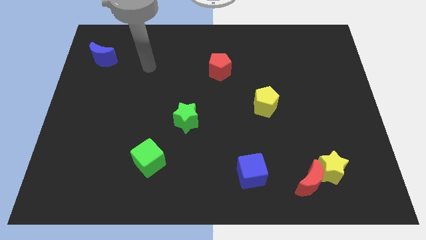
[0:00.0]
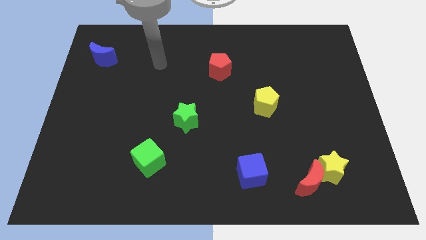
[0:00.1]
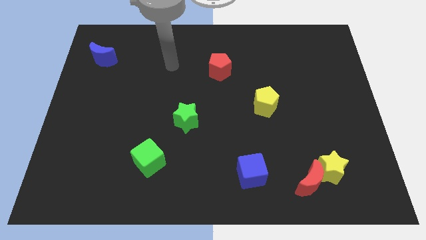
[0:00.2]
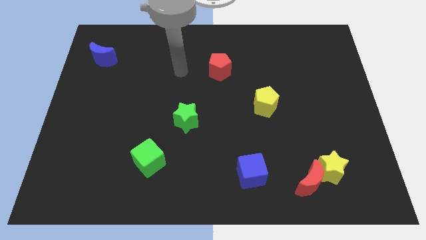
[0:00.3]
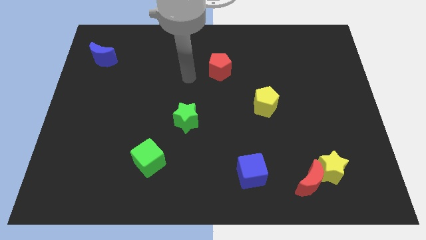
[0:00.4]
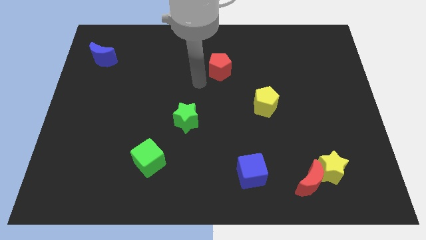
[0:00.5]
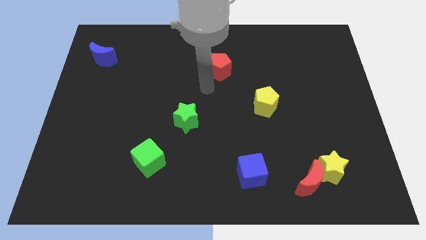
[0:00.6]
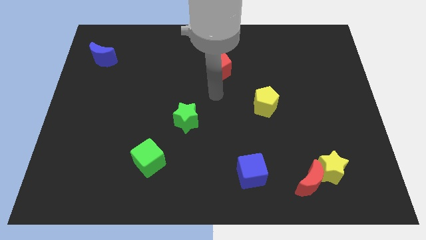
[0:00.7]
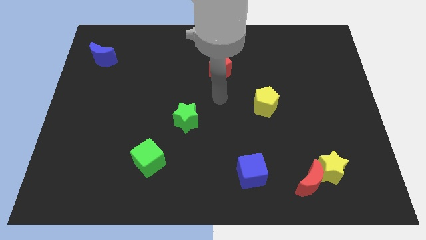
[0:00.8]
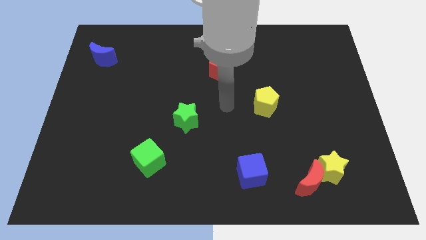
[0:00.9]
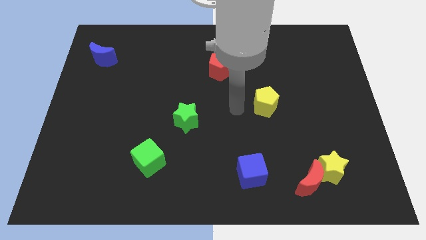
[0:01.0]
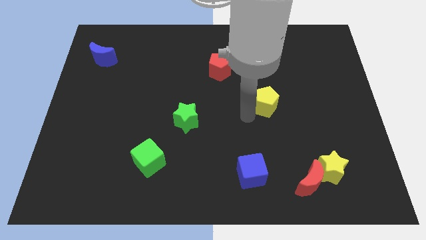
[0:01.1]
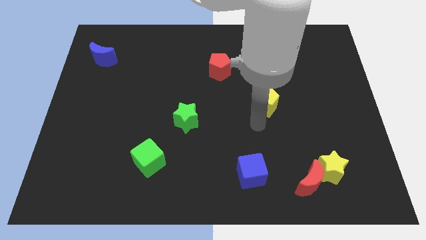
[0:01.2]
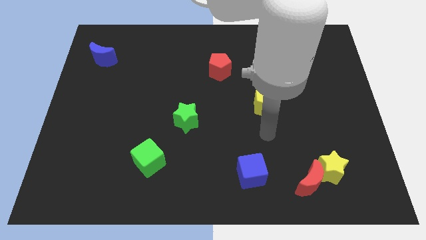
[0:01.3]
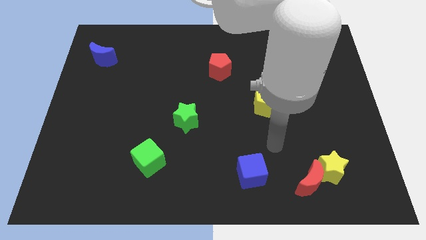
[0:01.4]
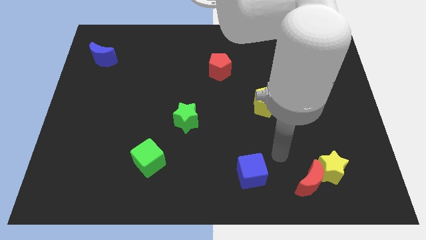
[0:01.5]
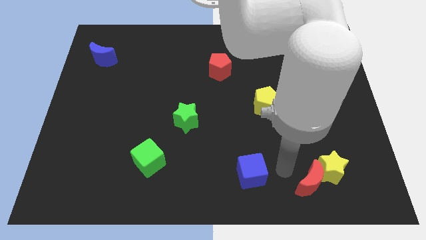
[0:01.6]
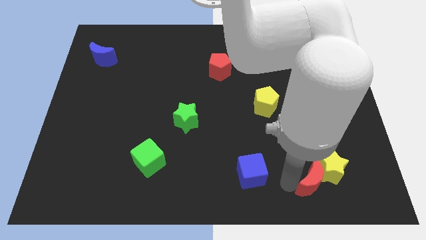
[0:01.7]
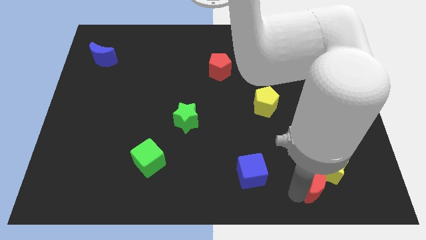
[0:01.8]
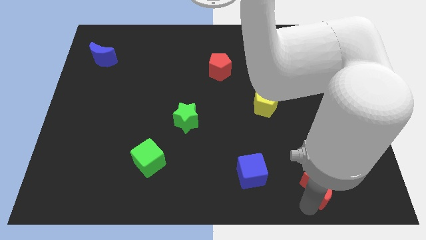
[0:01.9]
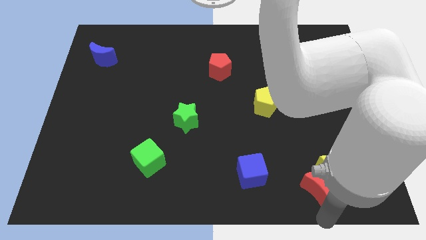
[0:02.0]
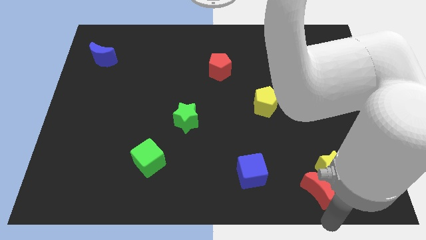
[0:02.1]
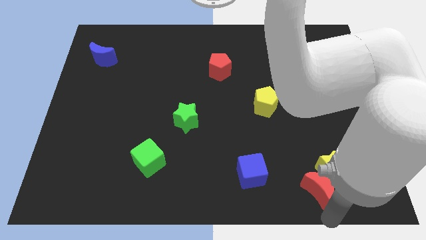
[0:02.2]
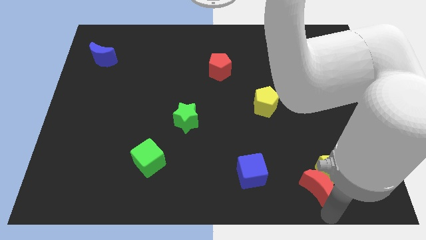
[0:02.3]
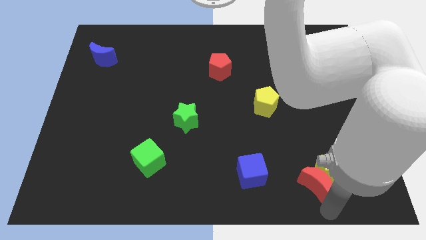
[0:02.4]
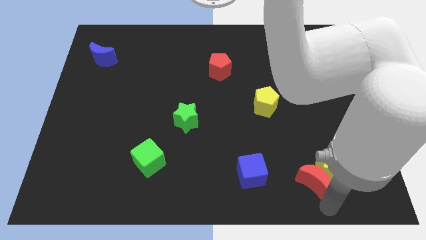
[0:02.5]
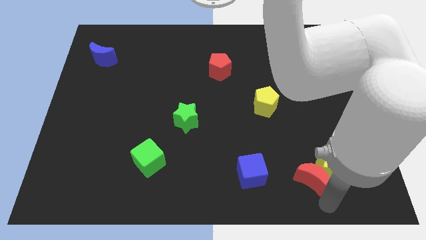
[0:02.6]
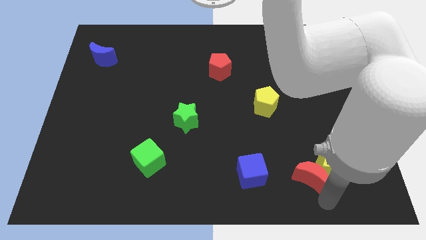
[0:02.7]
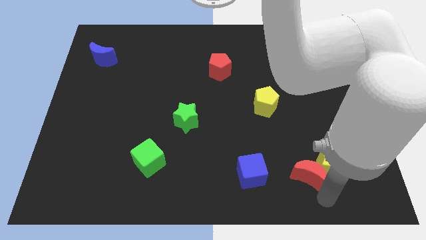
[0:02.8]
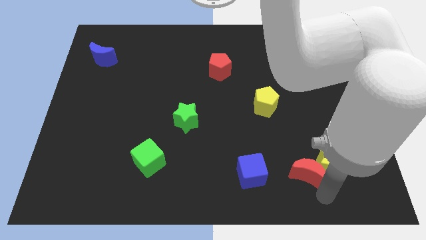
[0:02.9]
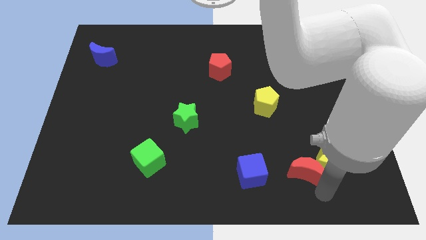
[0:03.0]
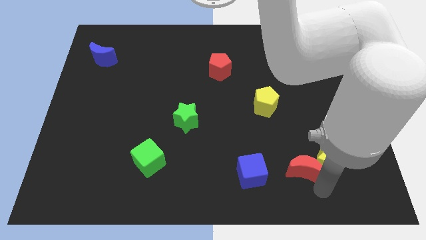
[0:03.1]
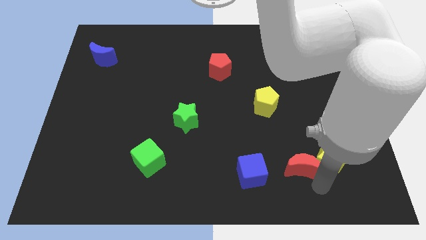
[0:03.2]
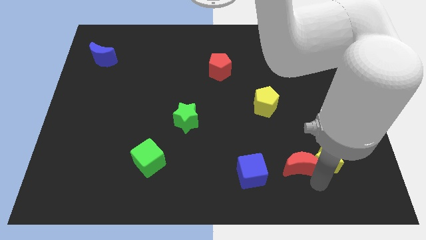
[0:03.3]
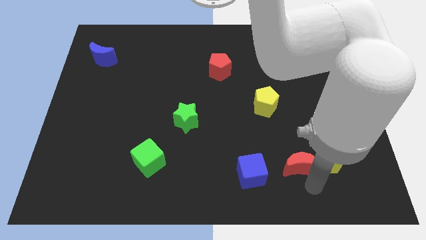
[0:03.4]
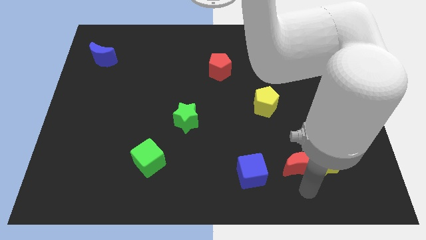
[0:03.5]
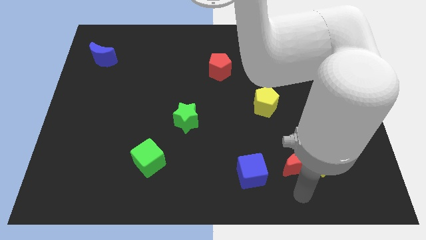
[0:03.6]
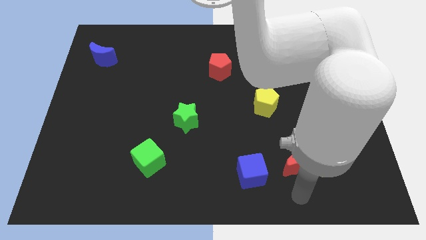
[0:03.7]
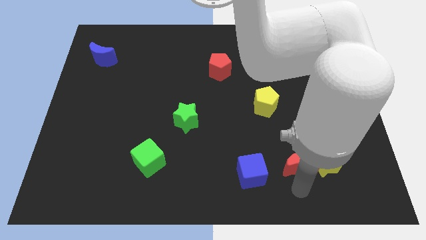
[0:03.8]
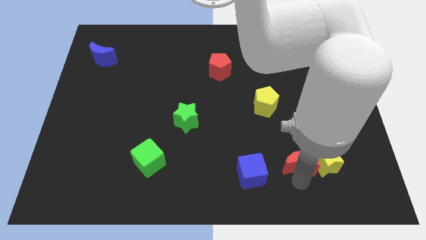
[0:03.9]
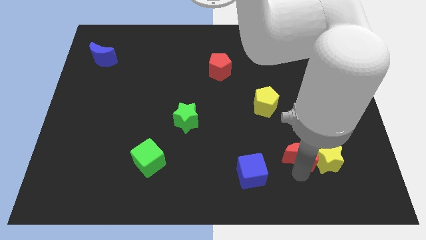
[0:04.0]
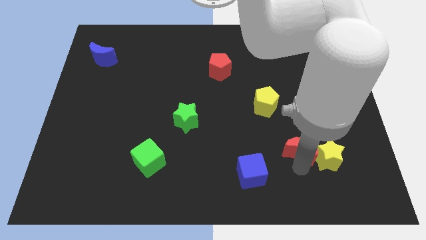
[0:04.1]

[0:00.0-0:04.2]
move the red moon slightly upwards

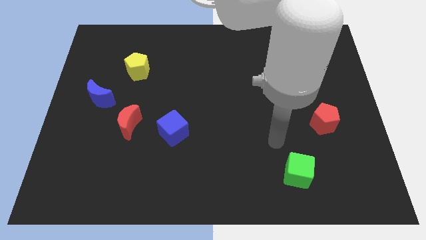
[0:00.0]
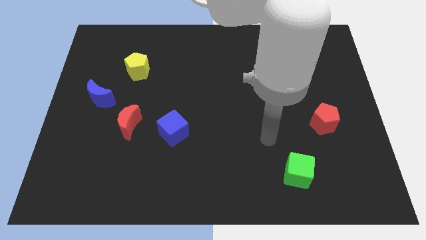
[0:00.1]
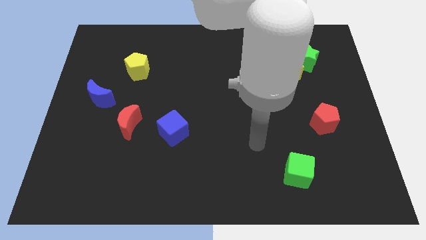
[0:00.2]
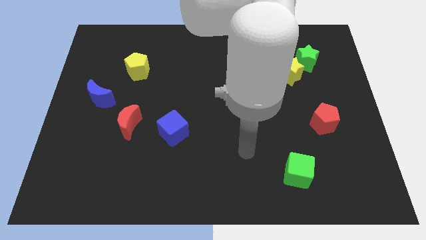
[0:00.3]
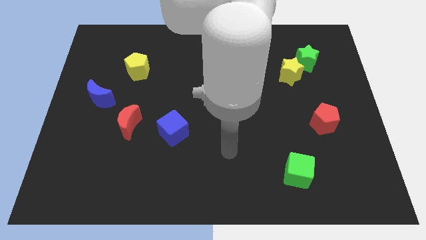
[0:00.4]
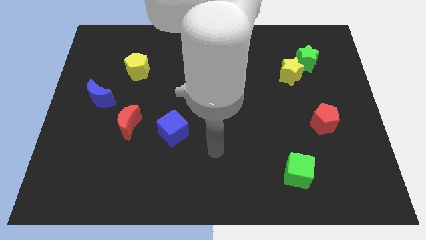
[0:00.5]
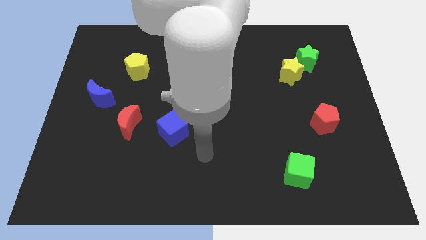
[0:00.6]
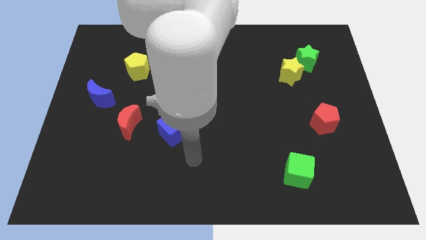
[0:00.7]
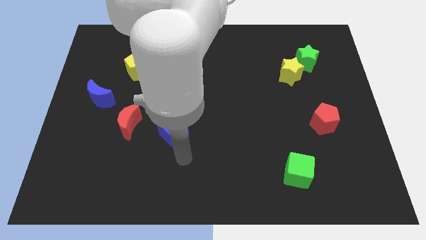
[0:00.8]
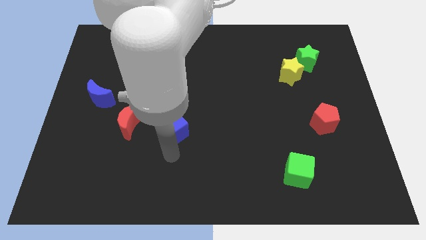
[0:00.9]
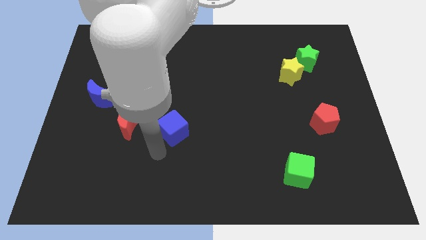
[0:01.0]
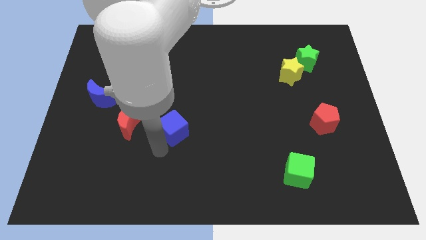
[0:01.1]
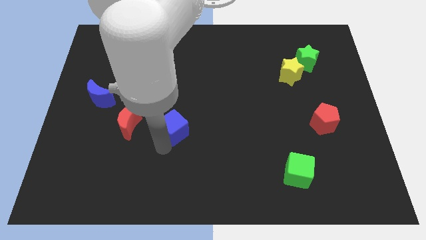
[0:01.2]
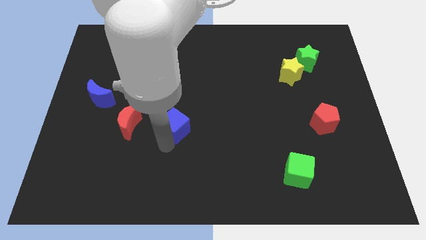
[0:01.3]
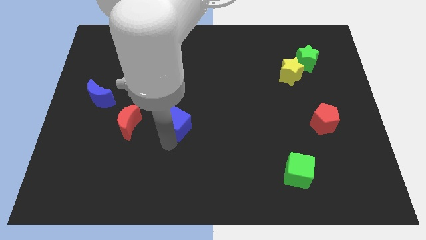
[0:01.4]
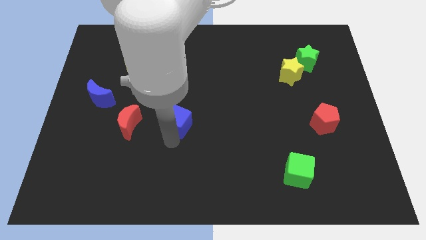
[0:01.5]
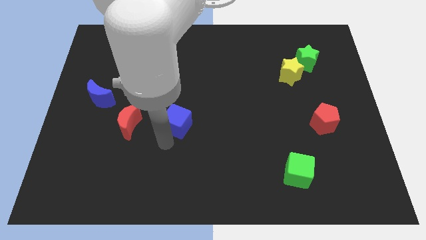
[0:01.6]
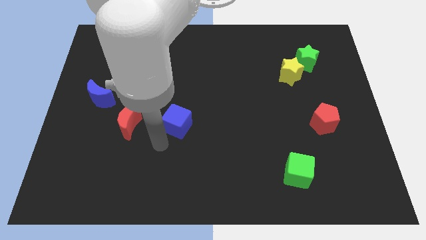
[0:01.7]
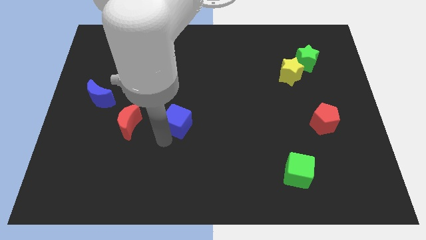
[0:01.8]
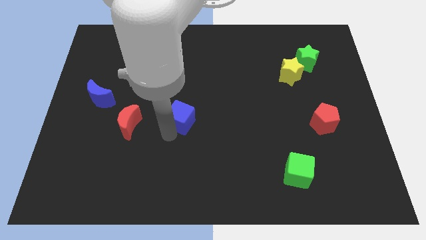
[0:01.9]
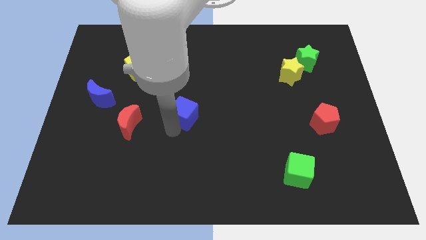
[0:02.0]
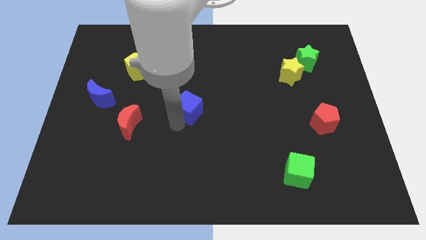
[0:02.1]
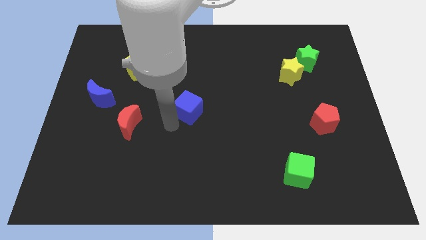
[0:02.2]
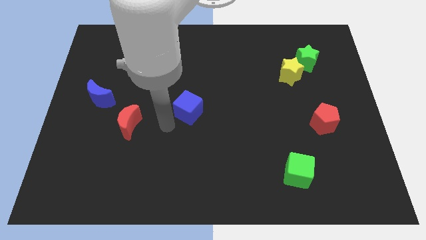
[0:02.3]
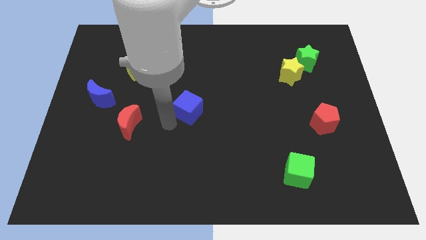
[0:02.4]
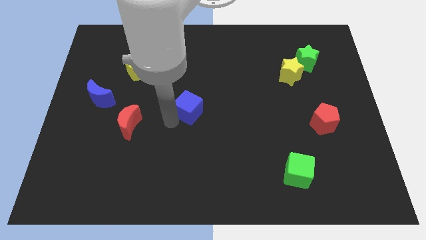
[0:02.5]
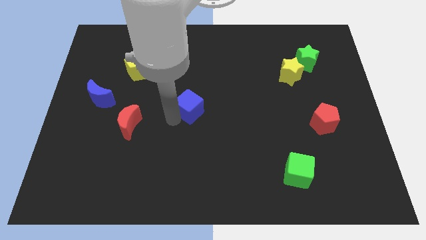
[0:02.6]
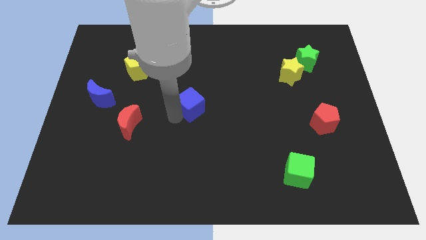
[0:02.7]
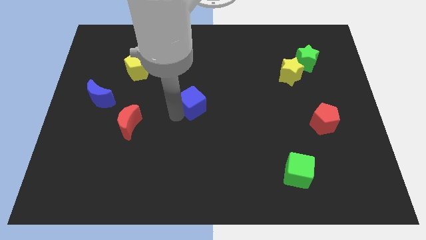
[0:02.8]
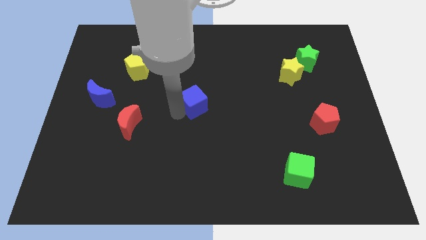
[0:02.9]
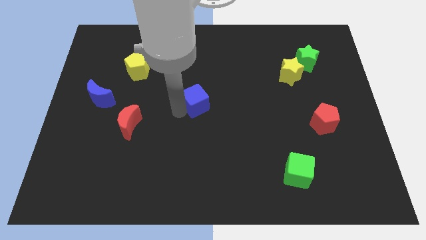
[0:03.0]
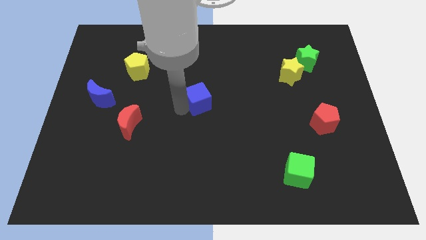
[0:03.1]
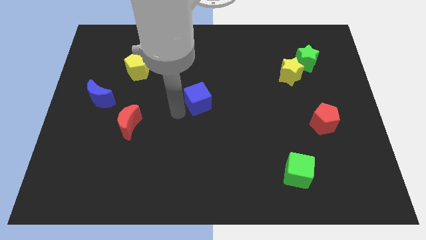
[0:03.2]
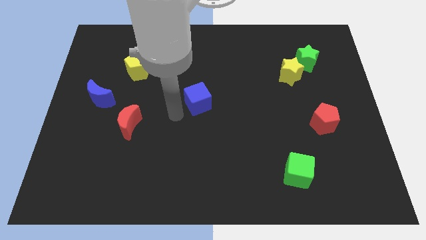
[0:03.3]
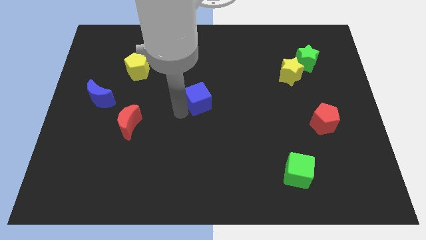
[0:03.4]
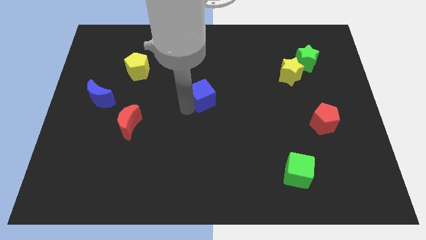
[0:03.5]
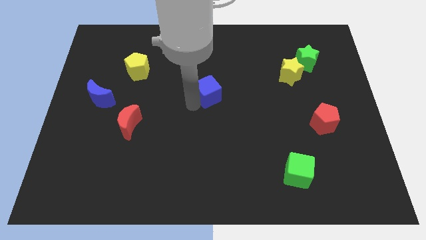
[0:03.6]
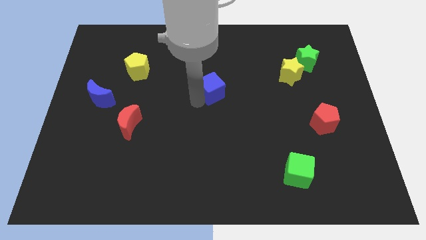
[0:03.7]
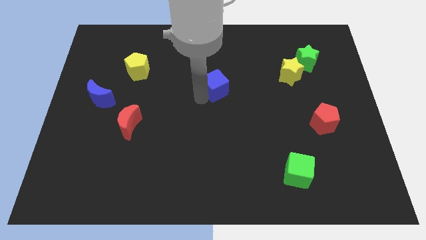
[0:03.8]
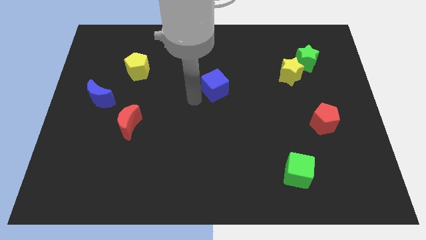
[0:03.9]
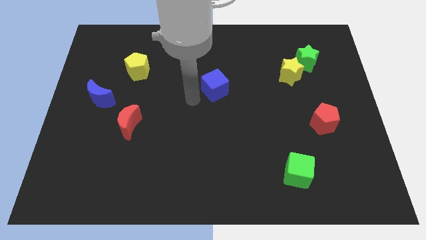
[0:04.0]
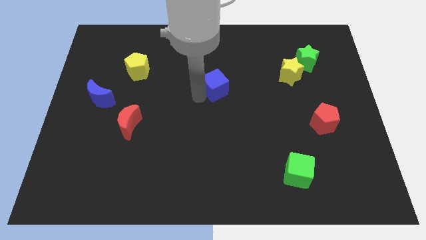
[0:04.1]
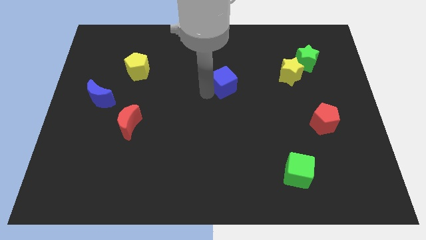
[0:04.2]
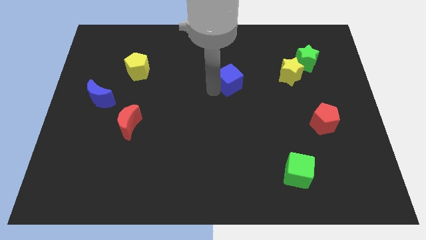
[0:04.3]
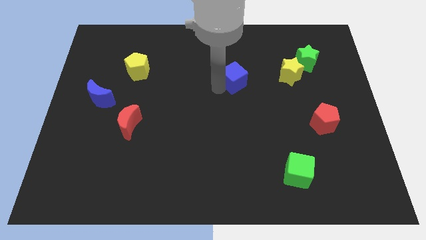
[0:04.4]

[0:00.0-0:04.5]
push the blue cube up and then right
